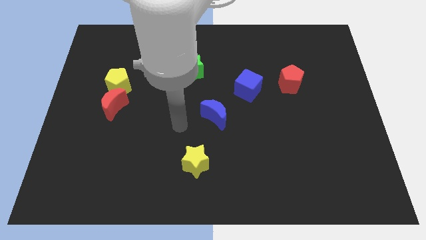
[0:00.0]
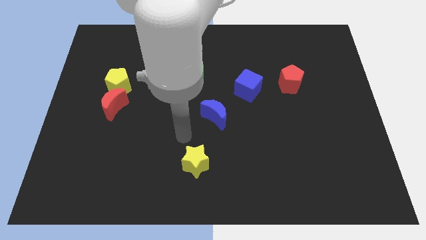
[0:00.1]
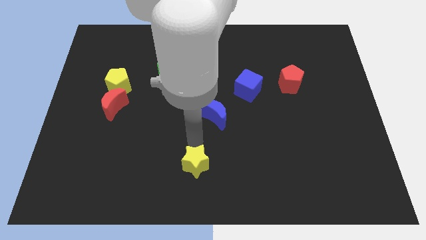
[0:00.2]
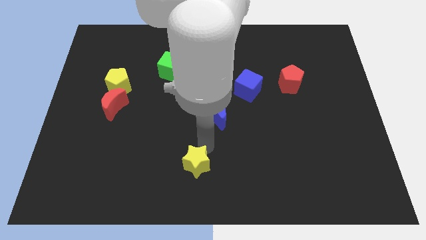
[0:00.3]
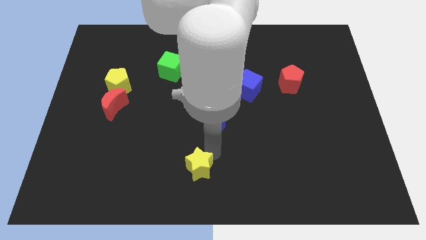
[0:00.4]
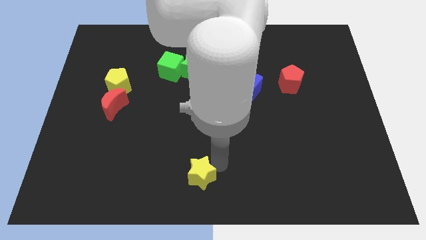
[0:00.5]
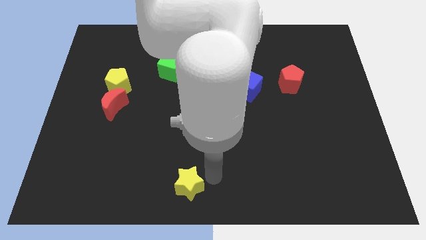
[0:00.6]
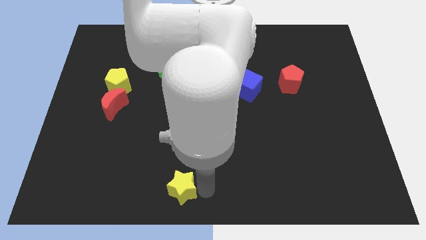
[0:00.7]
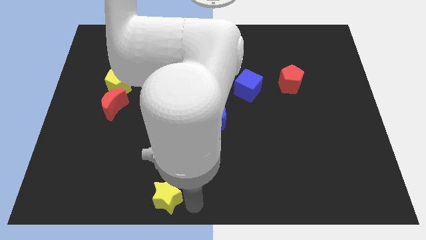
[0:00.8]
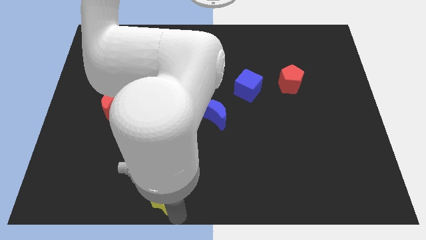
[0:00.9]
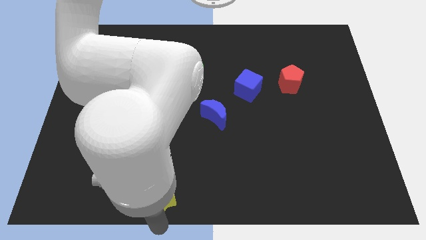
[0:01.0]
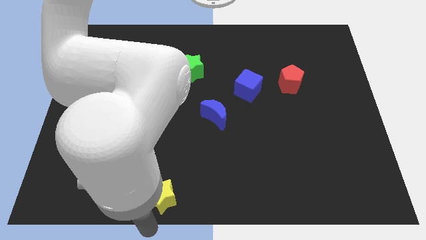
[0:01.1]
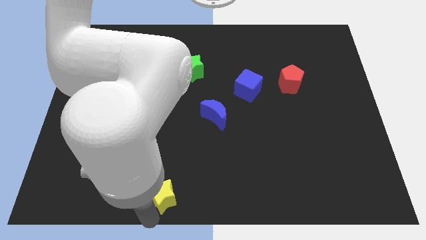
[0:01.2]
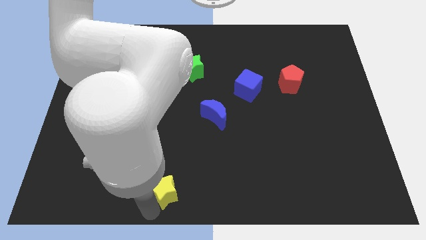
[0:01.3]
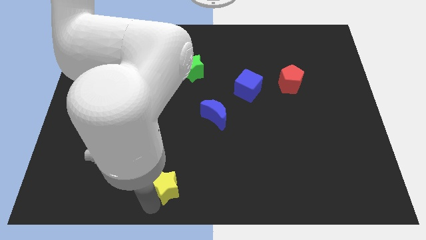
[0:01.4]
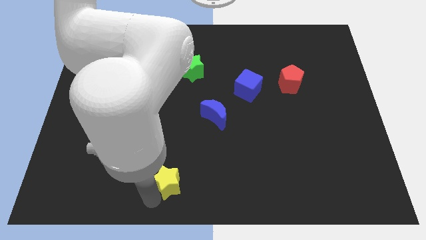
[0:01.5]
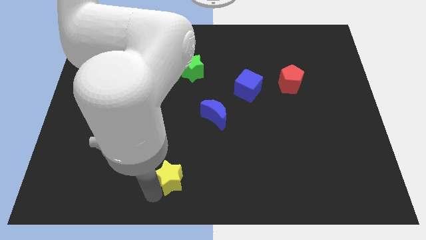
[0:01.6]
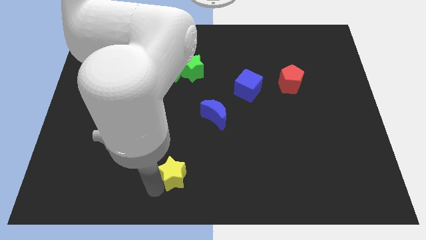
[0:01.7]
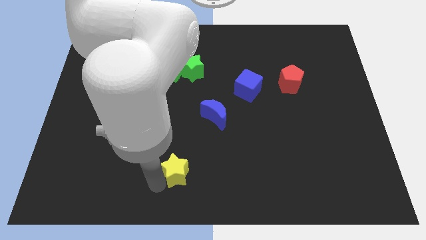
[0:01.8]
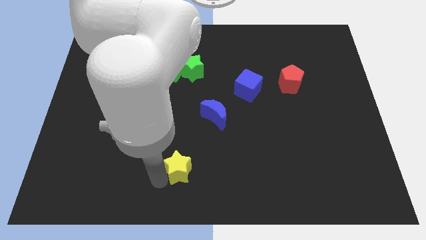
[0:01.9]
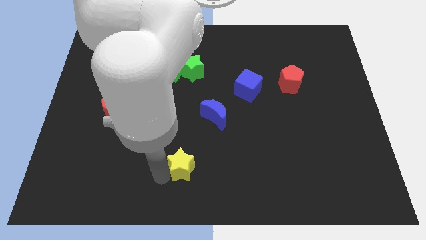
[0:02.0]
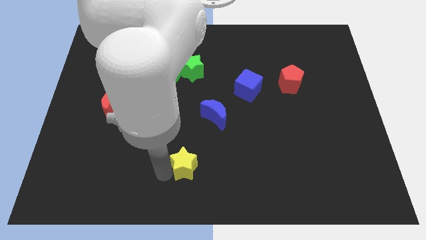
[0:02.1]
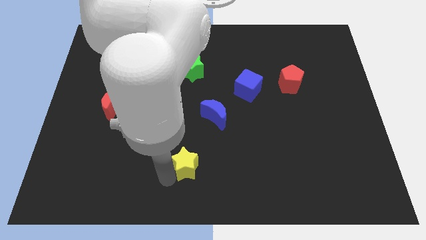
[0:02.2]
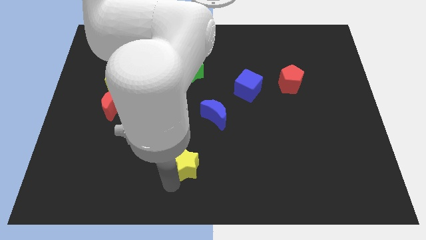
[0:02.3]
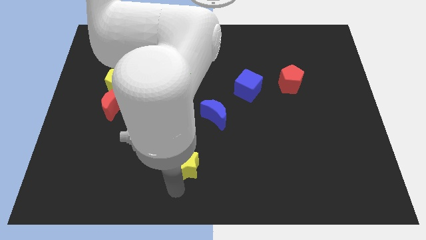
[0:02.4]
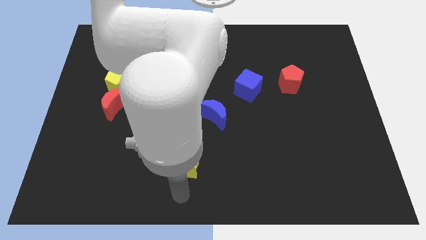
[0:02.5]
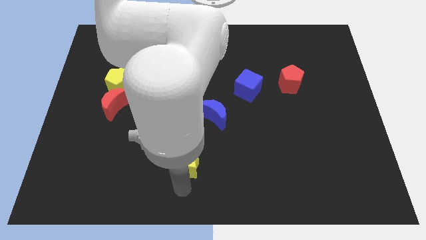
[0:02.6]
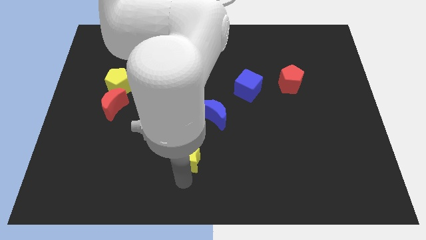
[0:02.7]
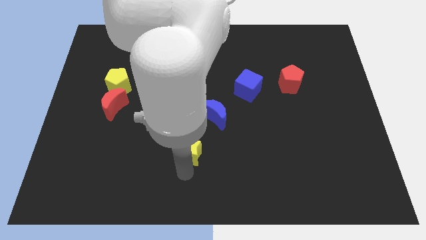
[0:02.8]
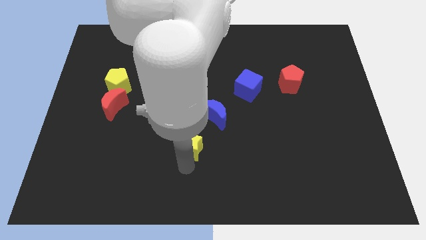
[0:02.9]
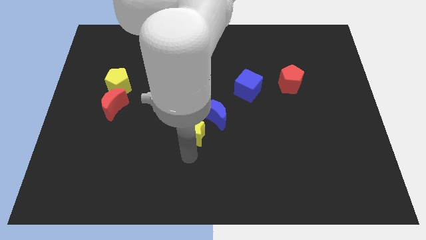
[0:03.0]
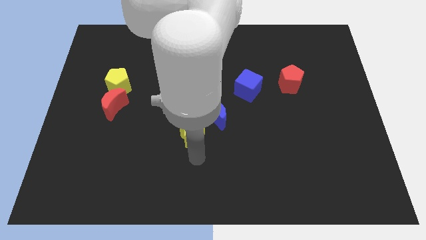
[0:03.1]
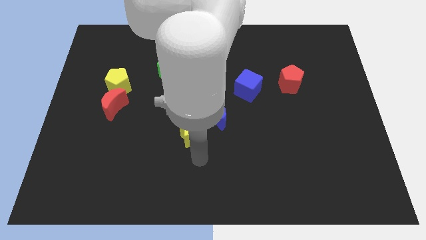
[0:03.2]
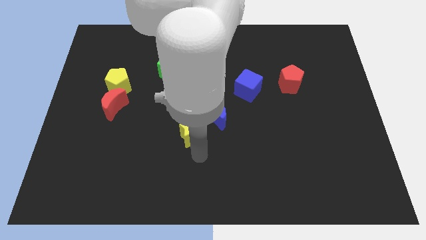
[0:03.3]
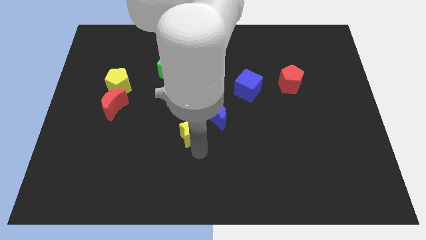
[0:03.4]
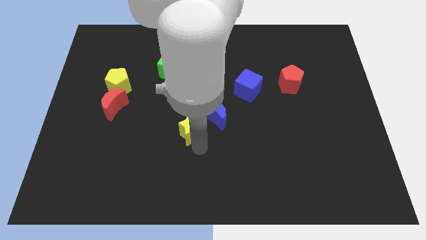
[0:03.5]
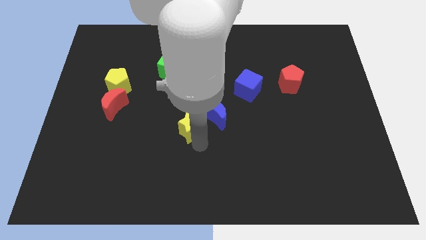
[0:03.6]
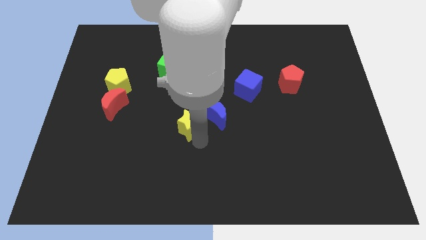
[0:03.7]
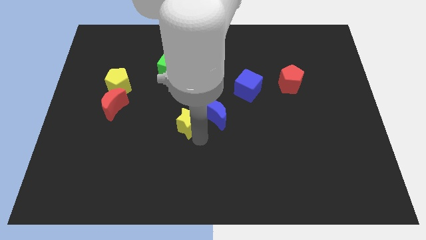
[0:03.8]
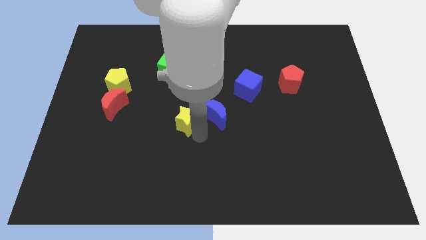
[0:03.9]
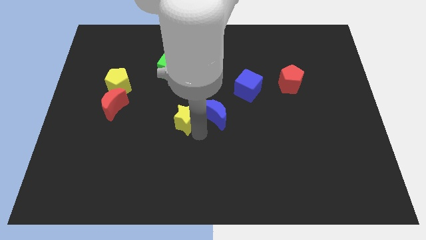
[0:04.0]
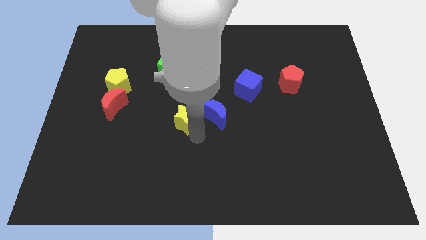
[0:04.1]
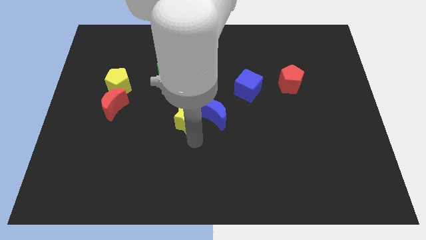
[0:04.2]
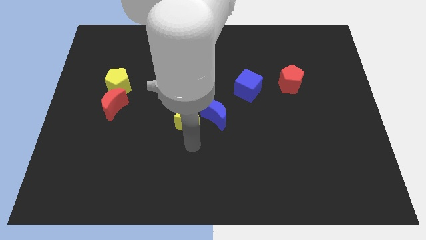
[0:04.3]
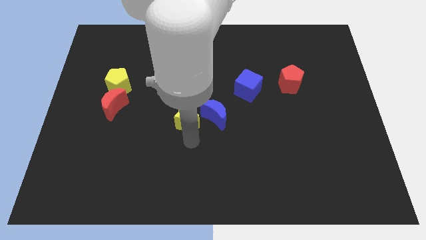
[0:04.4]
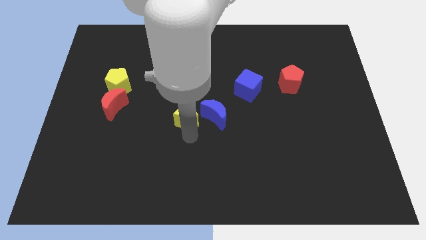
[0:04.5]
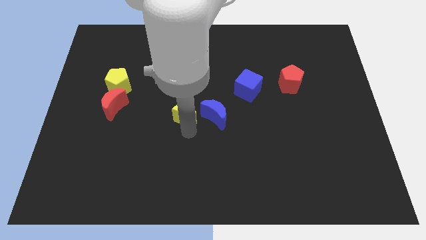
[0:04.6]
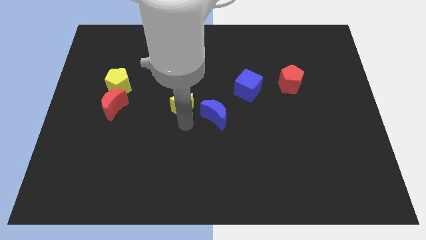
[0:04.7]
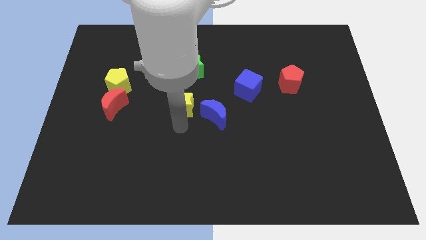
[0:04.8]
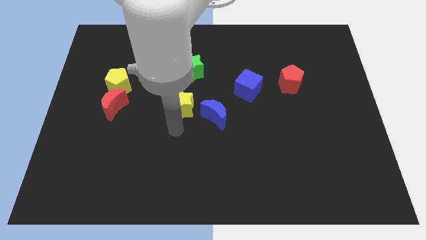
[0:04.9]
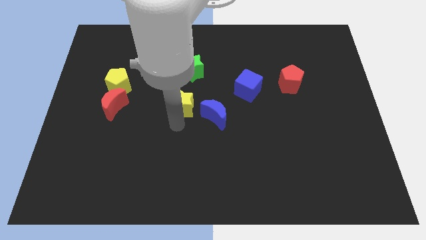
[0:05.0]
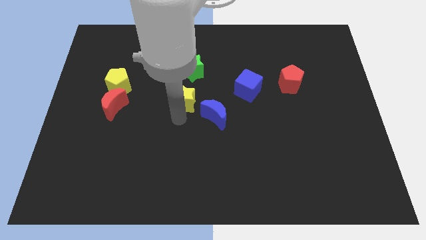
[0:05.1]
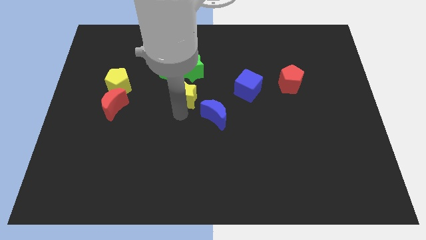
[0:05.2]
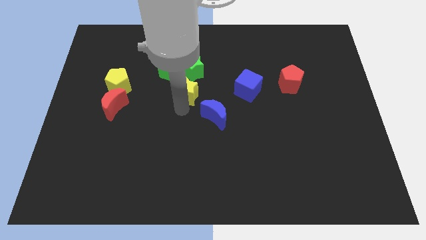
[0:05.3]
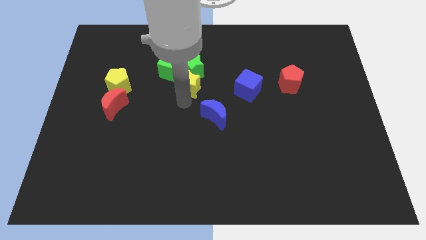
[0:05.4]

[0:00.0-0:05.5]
put the yellow star towards the green star

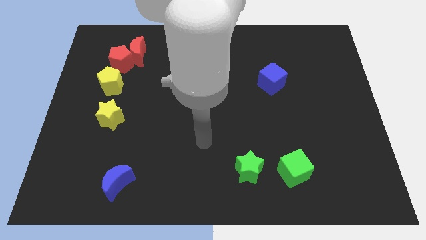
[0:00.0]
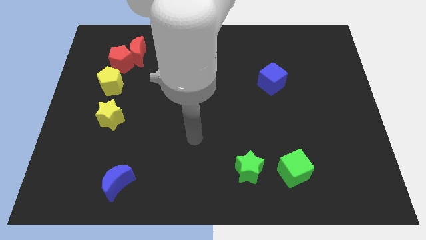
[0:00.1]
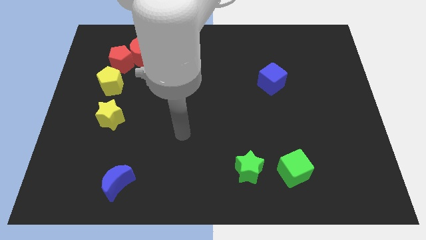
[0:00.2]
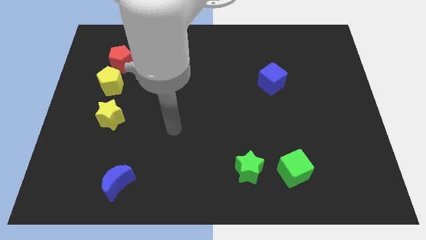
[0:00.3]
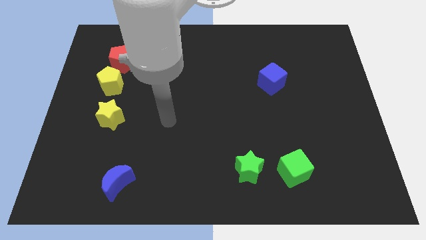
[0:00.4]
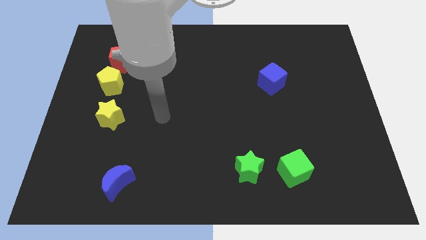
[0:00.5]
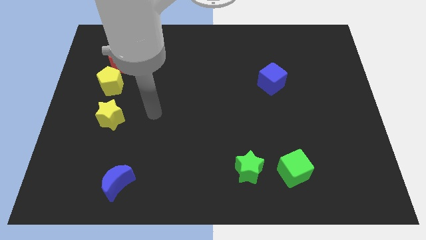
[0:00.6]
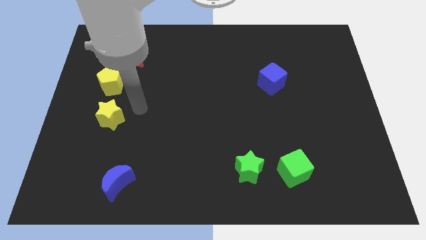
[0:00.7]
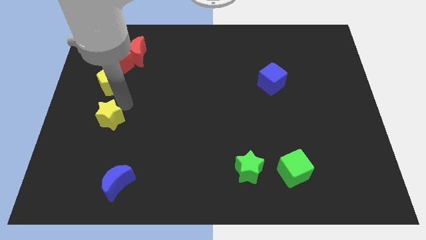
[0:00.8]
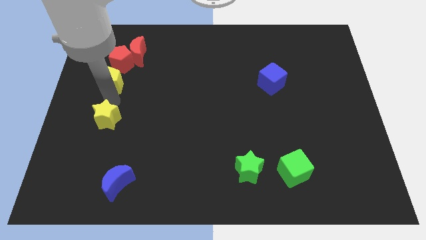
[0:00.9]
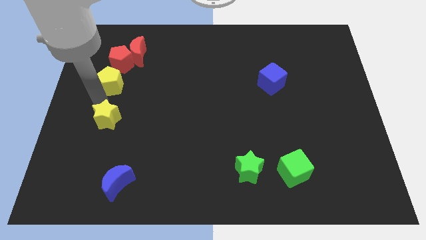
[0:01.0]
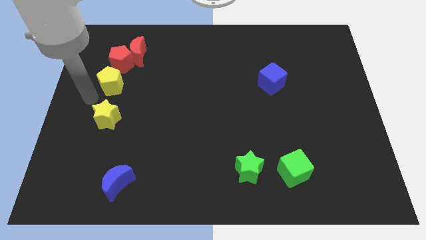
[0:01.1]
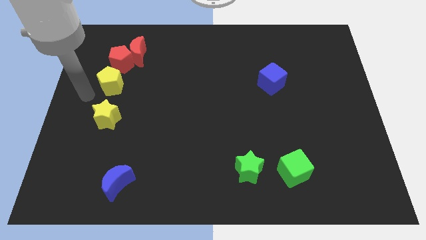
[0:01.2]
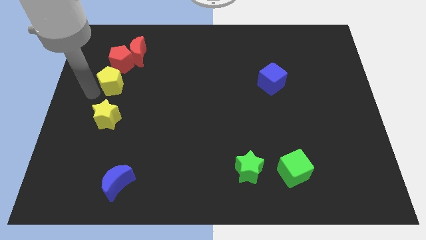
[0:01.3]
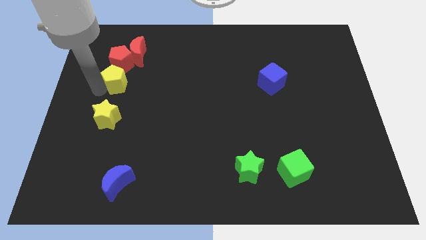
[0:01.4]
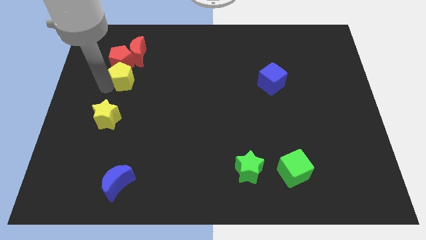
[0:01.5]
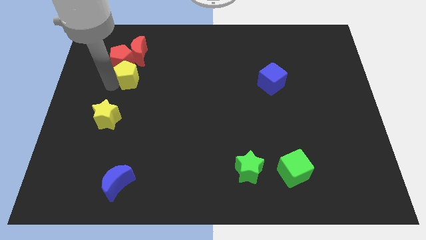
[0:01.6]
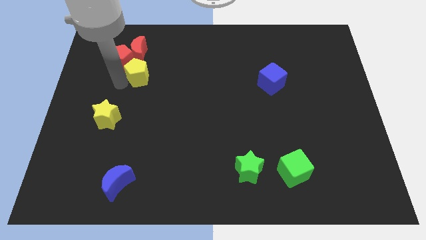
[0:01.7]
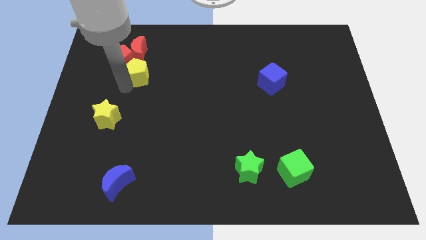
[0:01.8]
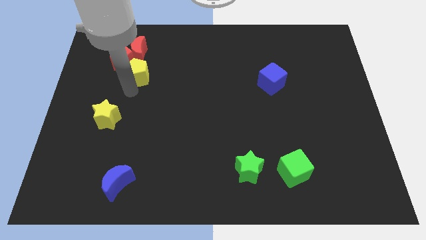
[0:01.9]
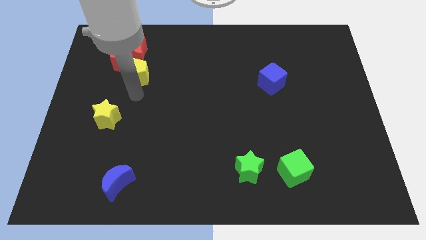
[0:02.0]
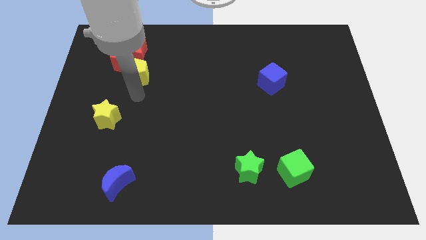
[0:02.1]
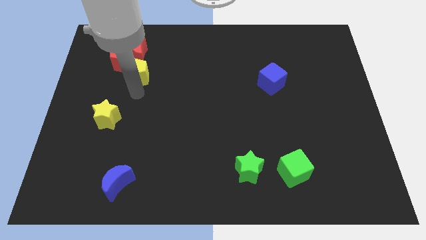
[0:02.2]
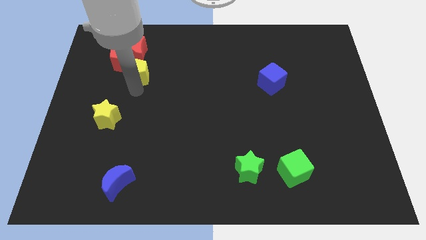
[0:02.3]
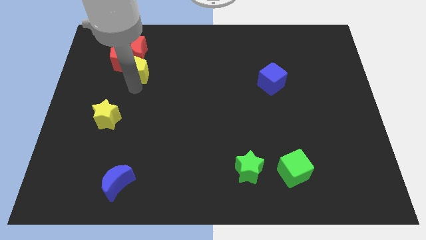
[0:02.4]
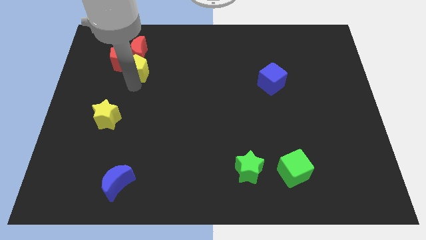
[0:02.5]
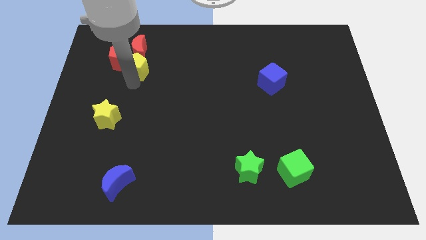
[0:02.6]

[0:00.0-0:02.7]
push the yellow pentagon to the red moon
